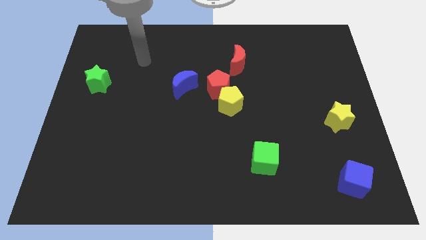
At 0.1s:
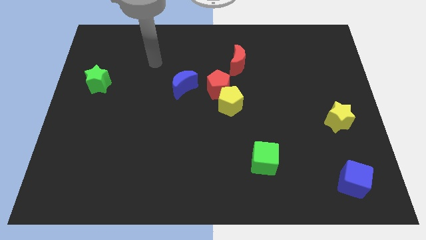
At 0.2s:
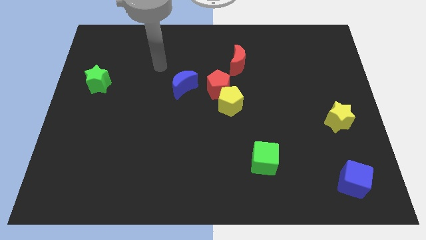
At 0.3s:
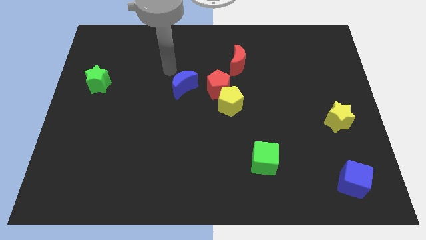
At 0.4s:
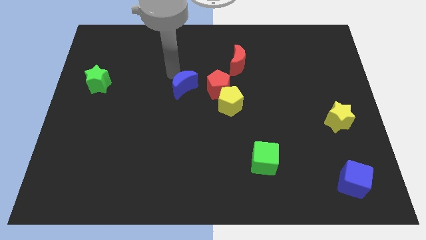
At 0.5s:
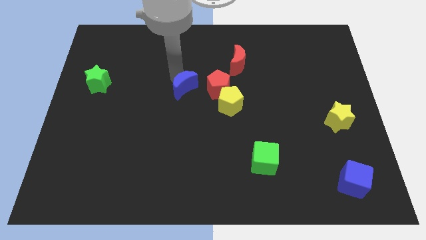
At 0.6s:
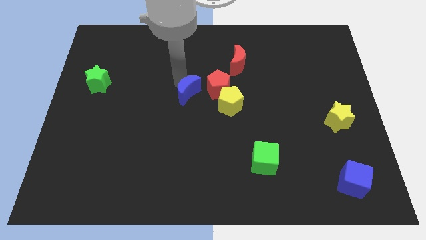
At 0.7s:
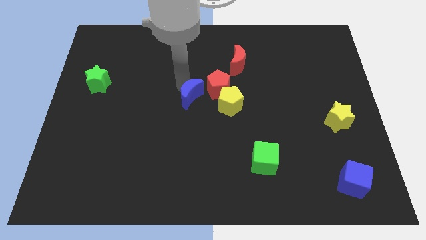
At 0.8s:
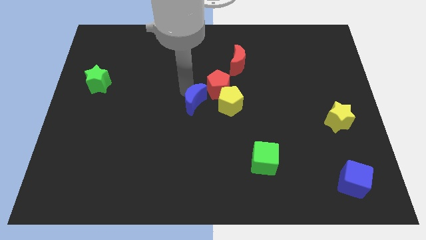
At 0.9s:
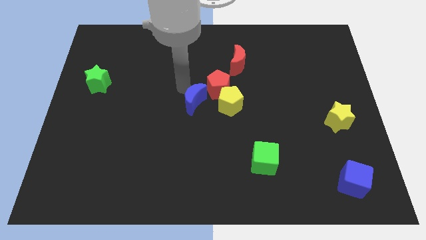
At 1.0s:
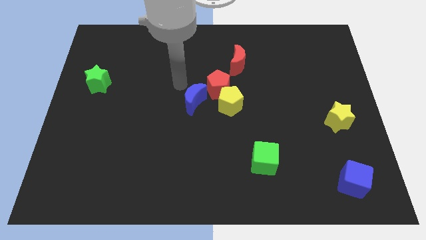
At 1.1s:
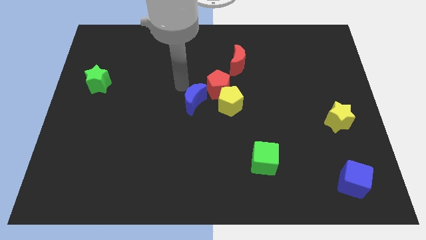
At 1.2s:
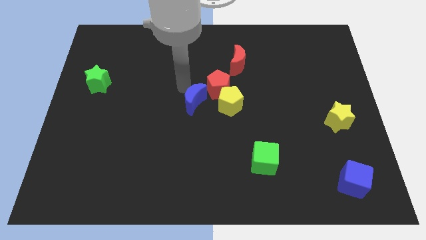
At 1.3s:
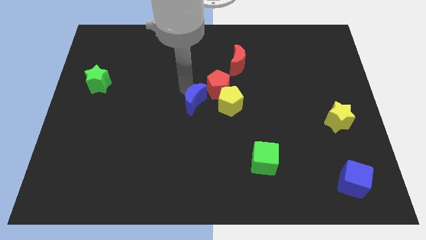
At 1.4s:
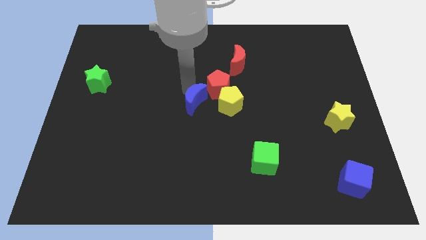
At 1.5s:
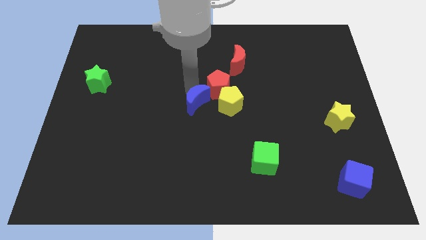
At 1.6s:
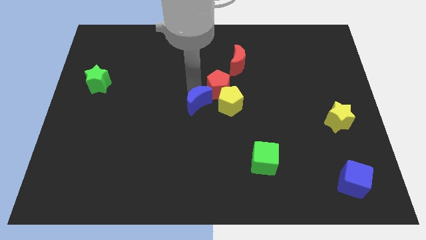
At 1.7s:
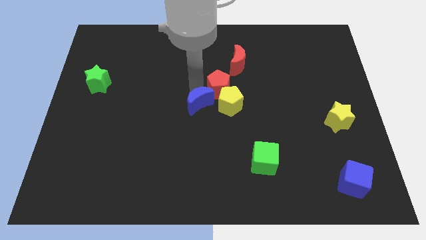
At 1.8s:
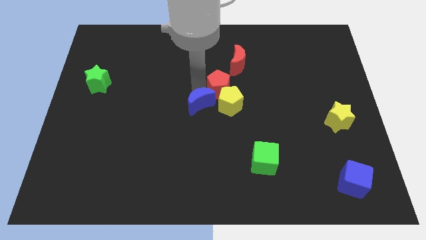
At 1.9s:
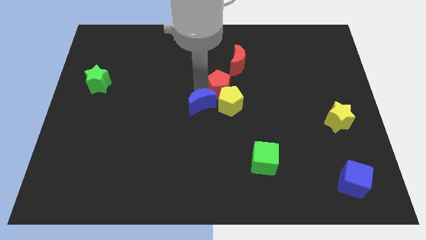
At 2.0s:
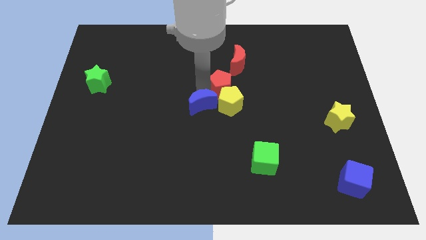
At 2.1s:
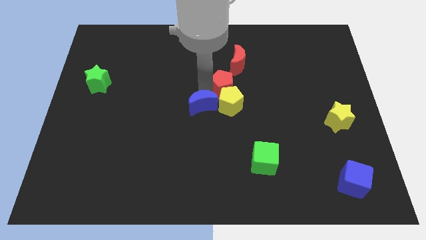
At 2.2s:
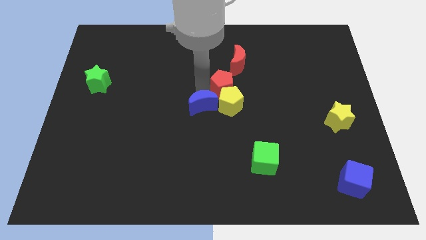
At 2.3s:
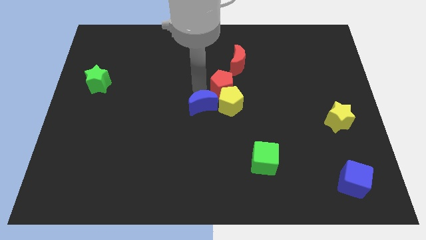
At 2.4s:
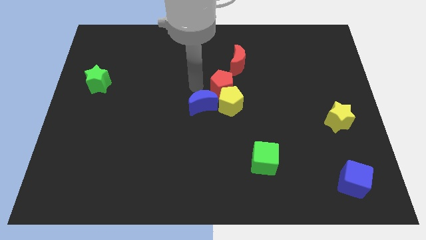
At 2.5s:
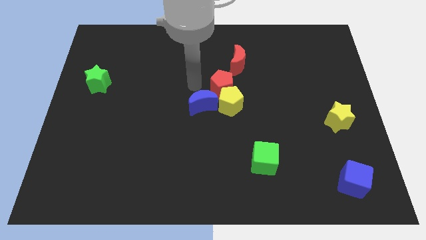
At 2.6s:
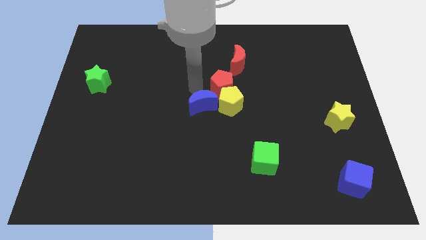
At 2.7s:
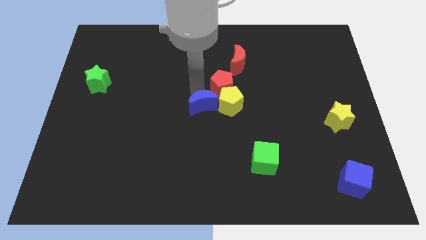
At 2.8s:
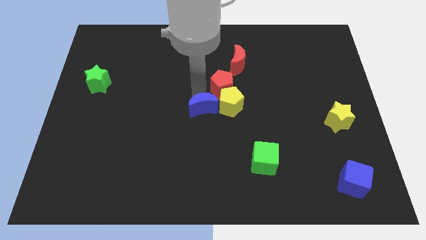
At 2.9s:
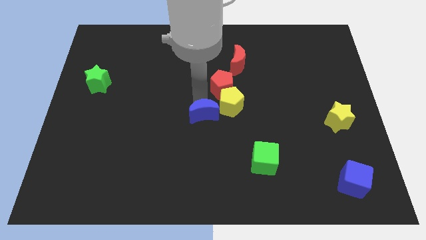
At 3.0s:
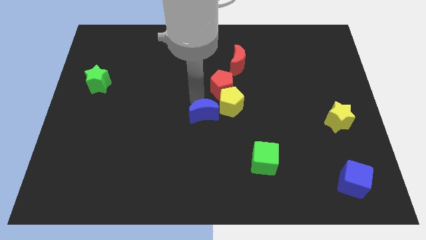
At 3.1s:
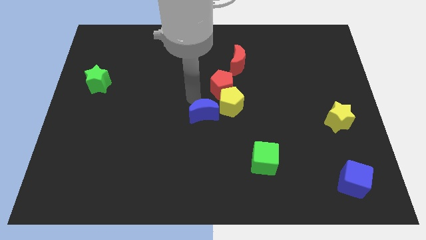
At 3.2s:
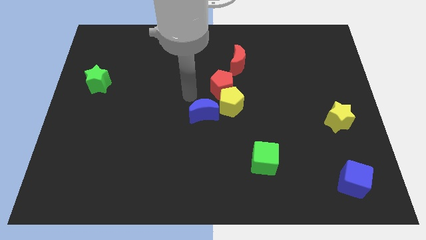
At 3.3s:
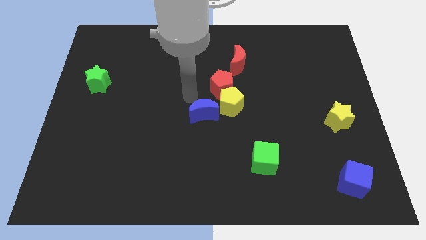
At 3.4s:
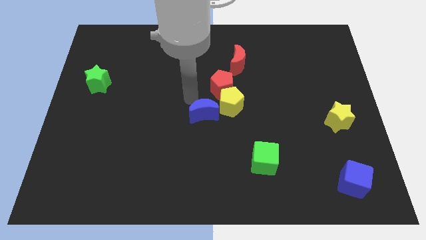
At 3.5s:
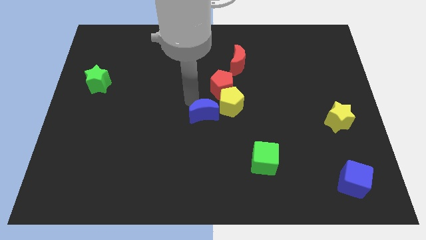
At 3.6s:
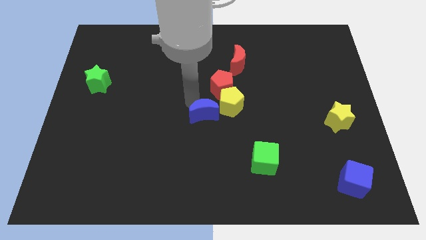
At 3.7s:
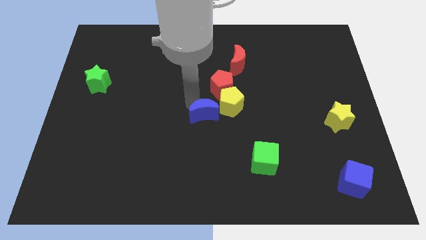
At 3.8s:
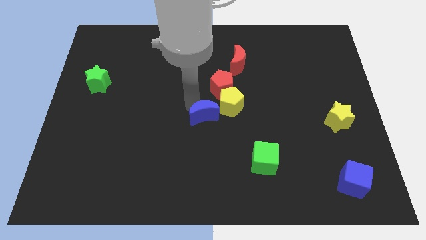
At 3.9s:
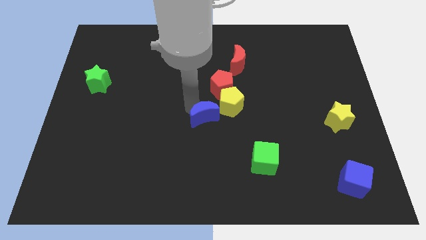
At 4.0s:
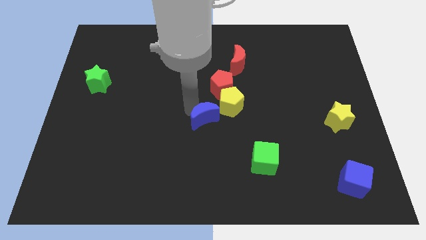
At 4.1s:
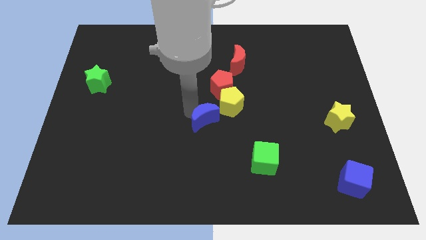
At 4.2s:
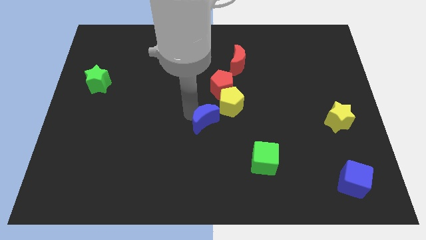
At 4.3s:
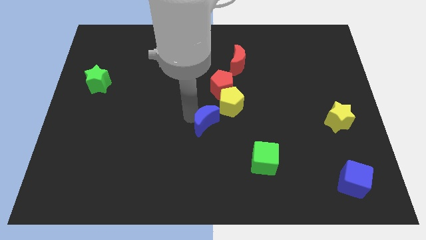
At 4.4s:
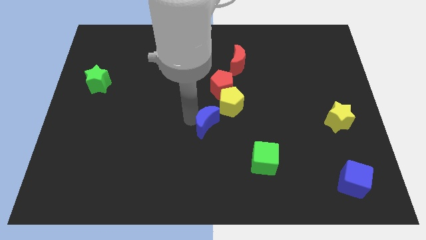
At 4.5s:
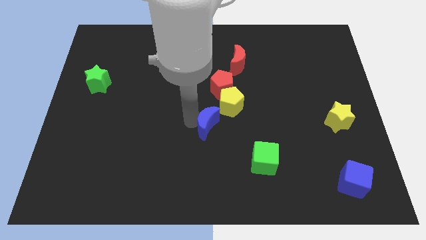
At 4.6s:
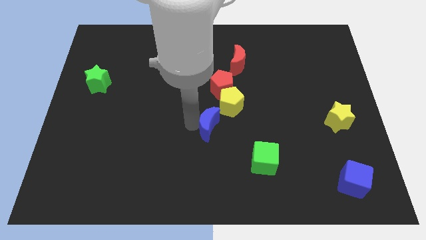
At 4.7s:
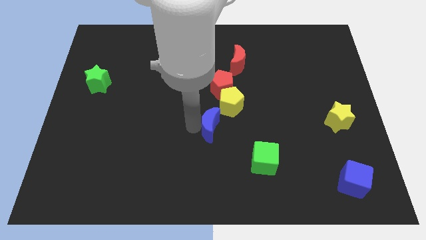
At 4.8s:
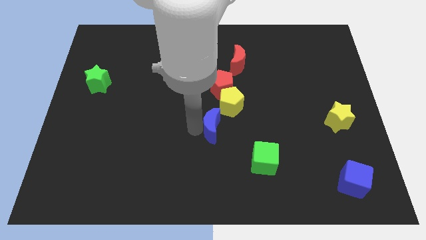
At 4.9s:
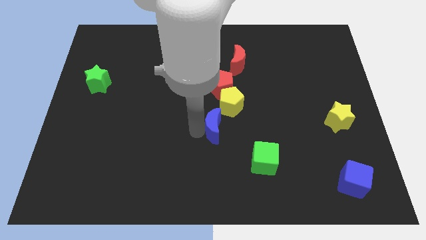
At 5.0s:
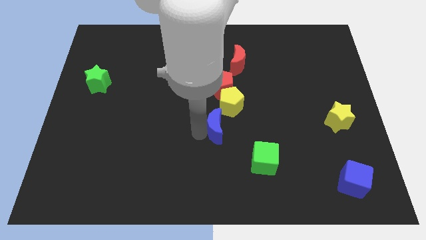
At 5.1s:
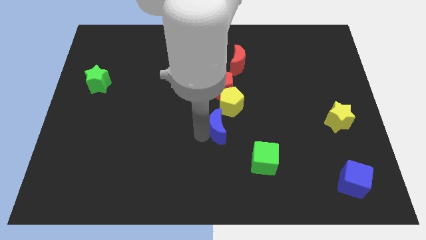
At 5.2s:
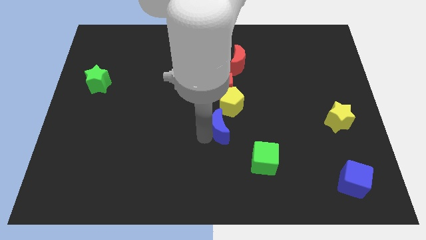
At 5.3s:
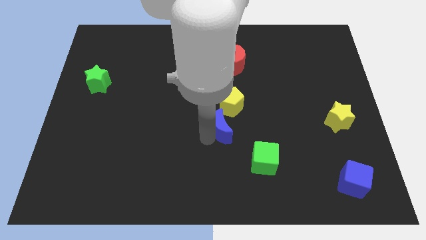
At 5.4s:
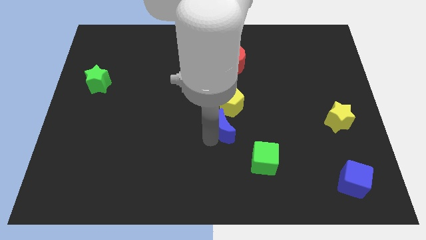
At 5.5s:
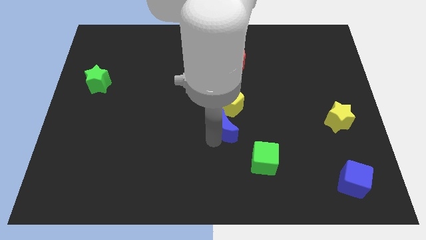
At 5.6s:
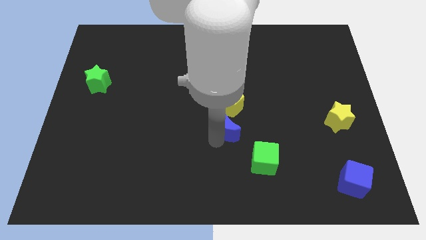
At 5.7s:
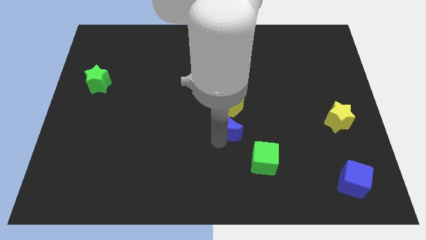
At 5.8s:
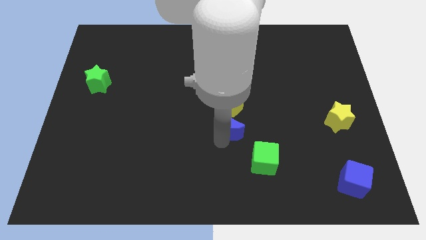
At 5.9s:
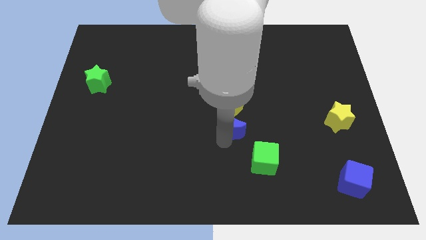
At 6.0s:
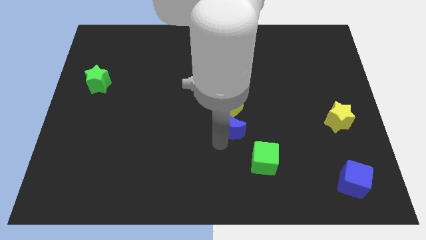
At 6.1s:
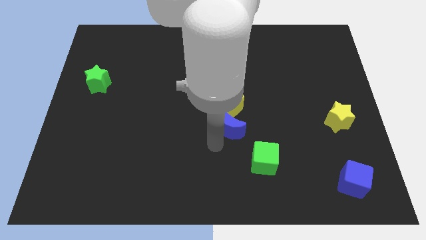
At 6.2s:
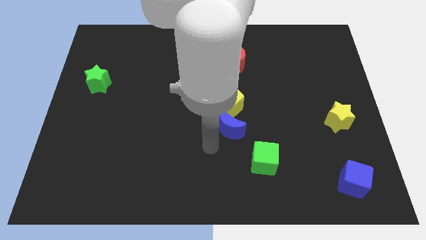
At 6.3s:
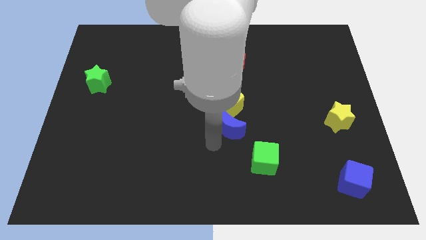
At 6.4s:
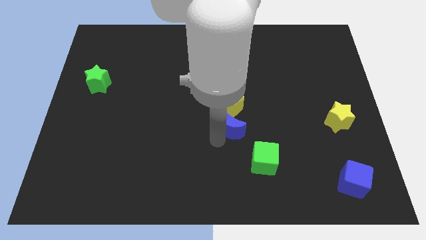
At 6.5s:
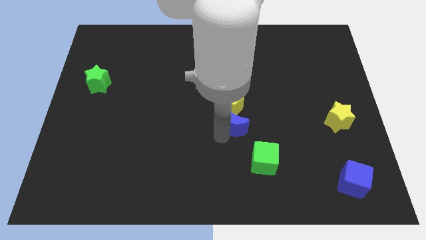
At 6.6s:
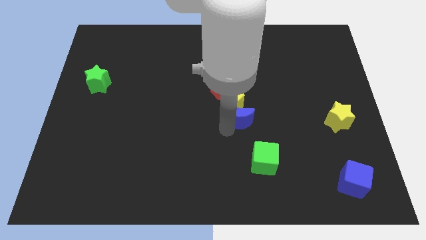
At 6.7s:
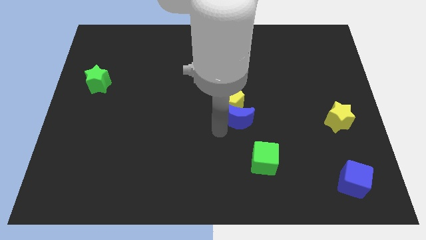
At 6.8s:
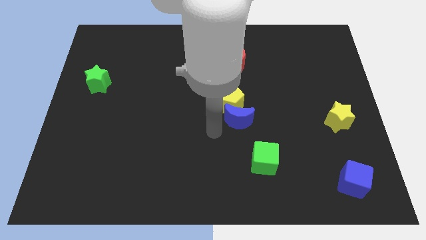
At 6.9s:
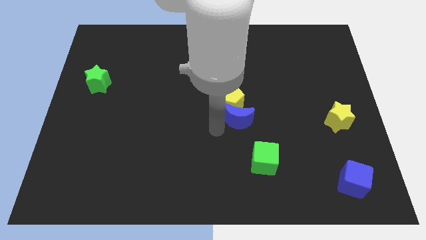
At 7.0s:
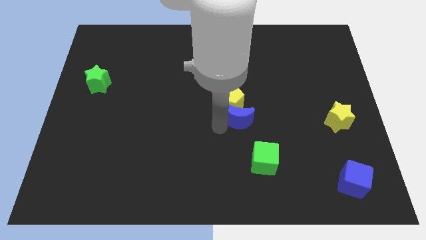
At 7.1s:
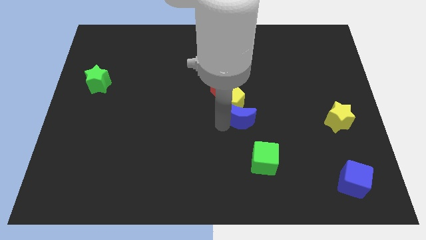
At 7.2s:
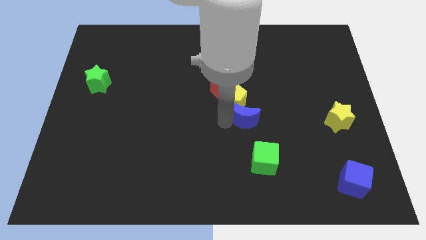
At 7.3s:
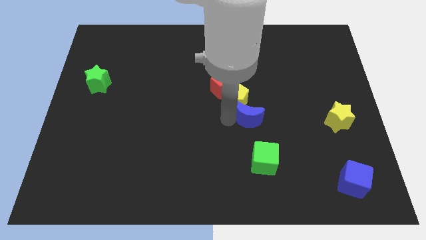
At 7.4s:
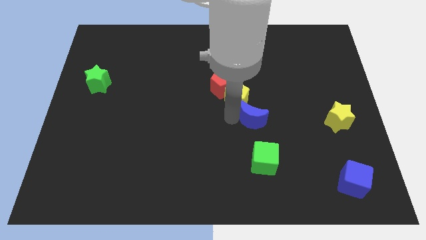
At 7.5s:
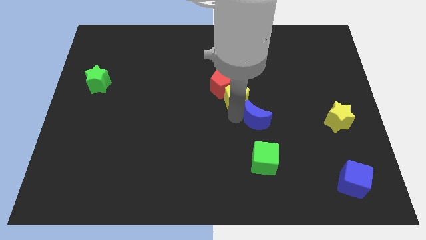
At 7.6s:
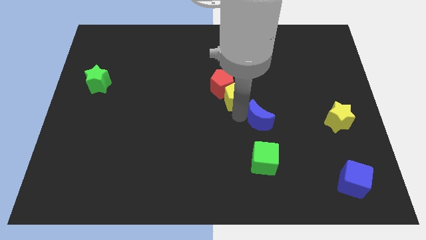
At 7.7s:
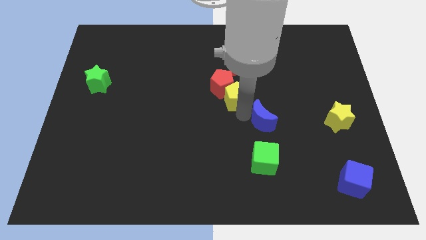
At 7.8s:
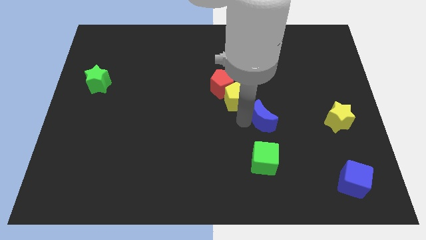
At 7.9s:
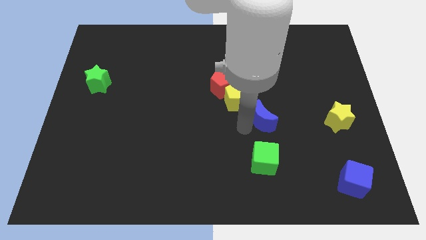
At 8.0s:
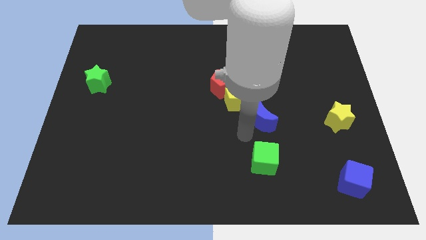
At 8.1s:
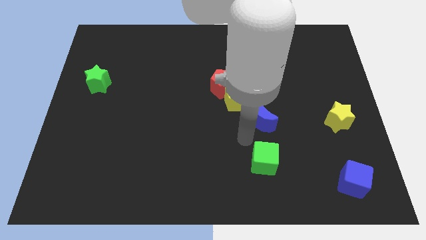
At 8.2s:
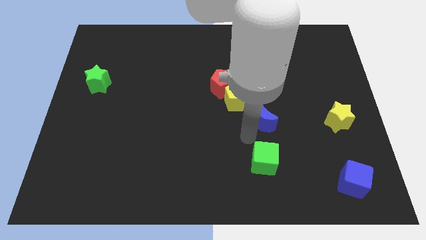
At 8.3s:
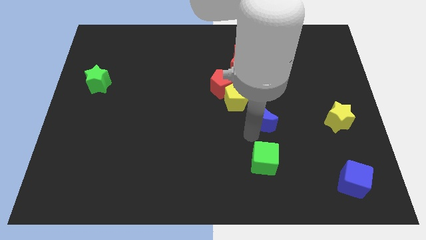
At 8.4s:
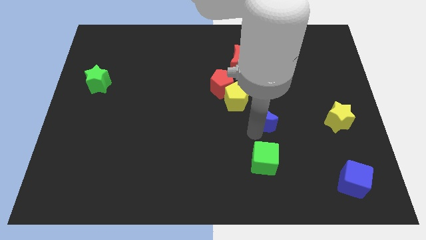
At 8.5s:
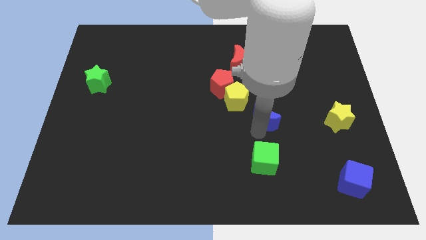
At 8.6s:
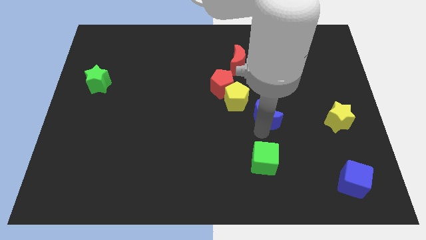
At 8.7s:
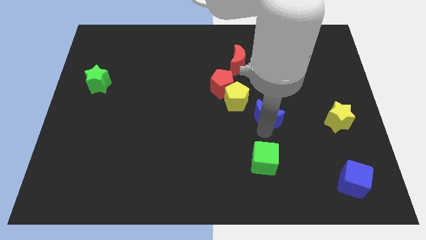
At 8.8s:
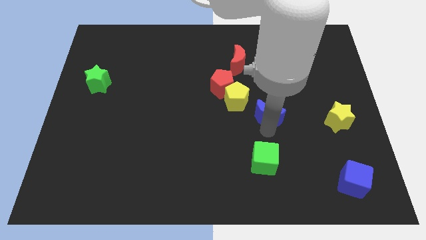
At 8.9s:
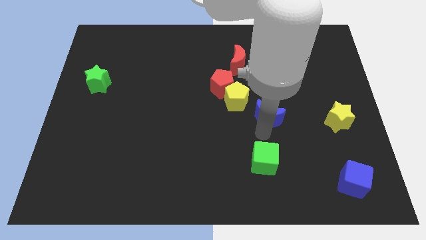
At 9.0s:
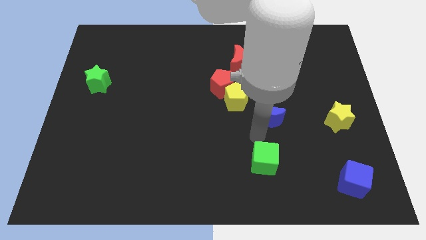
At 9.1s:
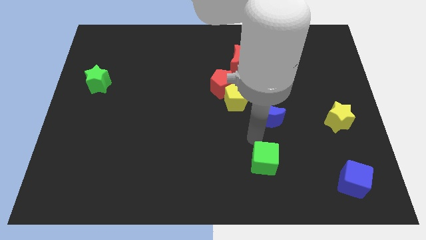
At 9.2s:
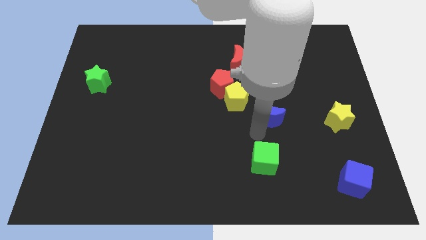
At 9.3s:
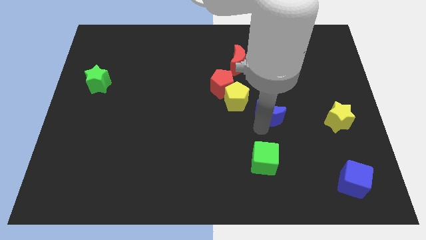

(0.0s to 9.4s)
push the blue moon to the right of the yellow pentagon
